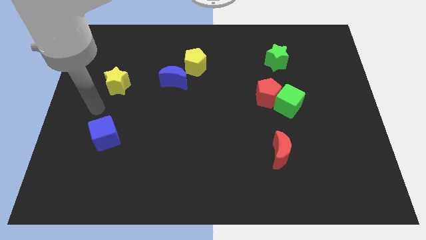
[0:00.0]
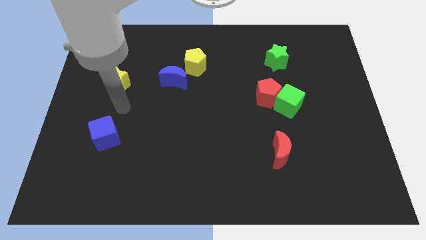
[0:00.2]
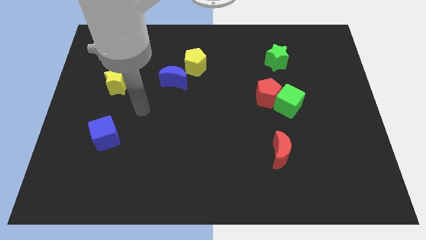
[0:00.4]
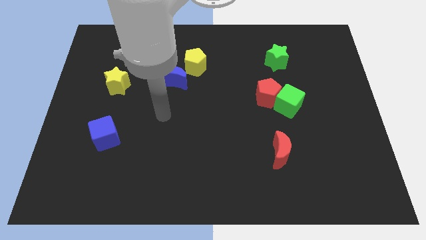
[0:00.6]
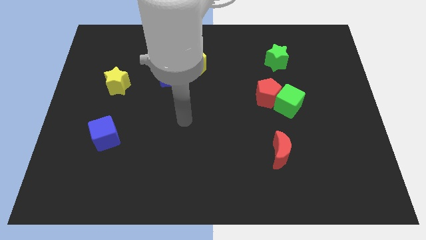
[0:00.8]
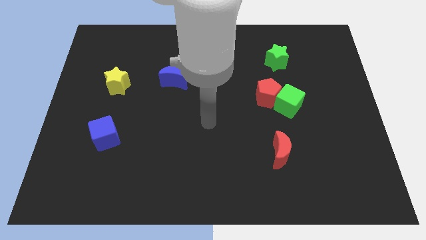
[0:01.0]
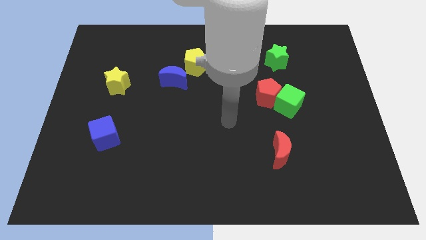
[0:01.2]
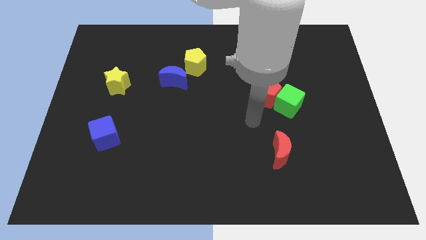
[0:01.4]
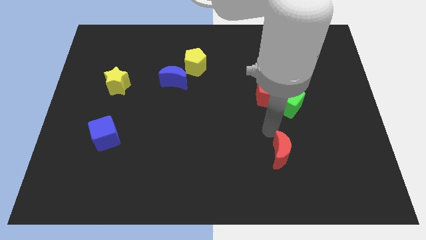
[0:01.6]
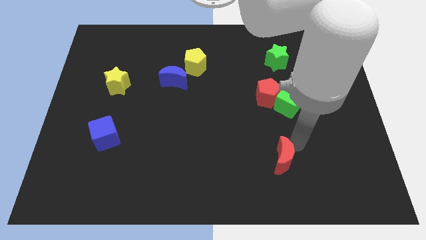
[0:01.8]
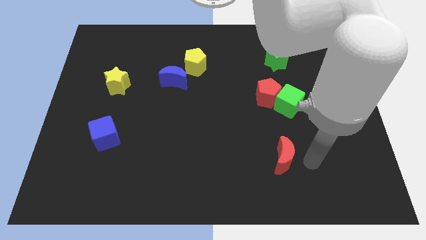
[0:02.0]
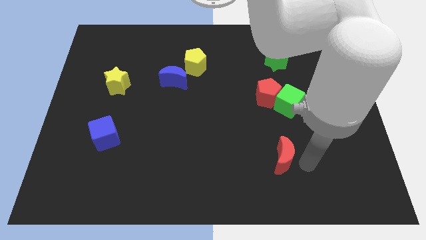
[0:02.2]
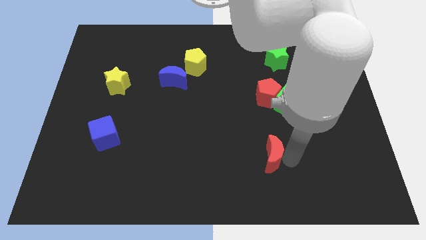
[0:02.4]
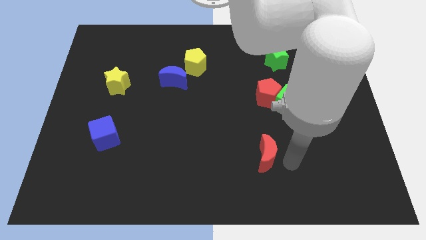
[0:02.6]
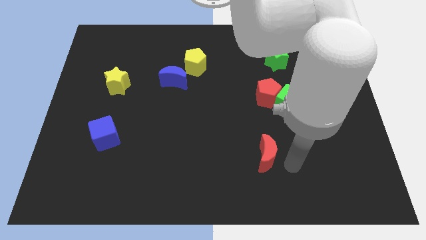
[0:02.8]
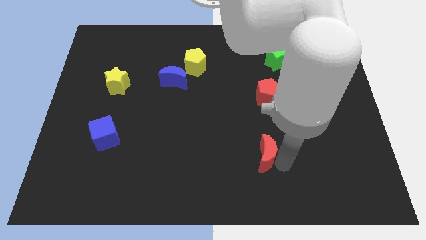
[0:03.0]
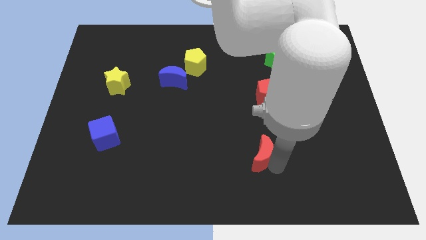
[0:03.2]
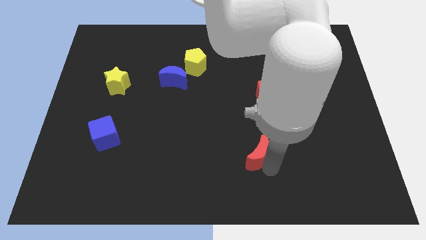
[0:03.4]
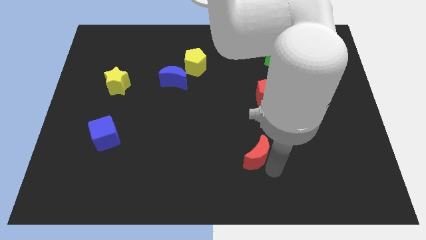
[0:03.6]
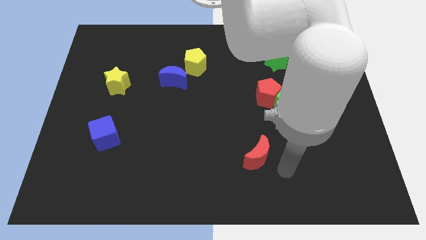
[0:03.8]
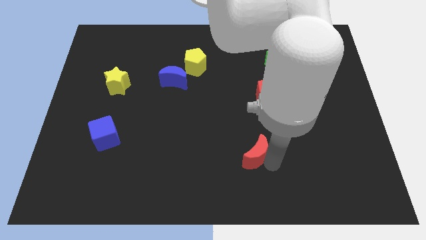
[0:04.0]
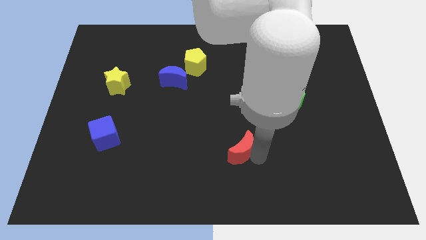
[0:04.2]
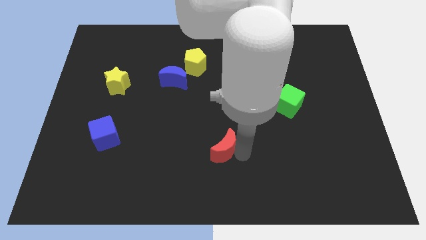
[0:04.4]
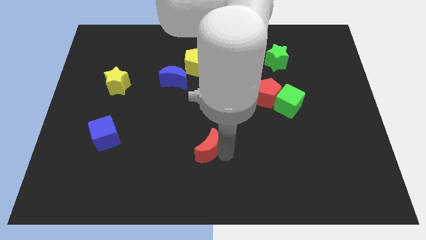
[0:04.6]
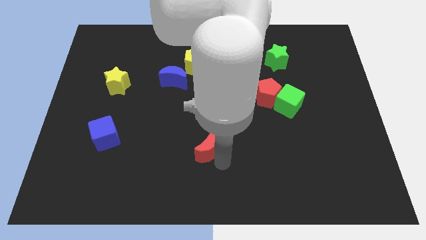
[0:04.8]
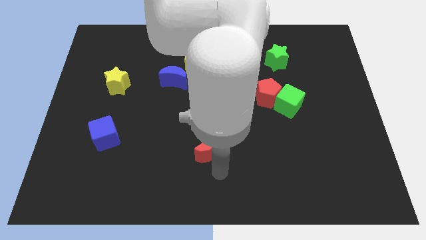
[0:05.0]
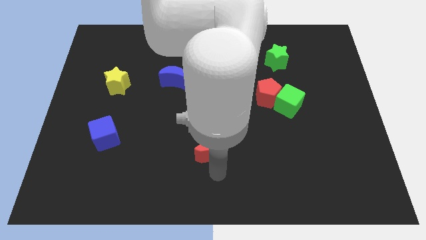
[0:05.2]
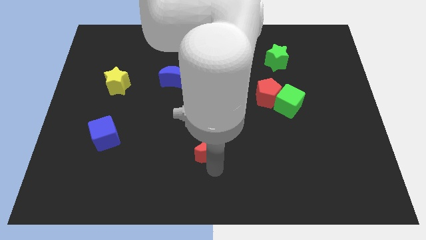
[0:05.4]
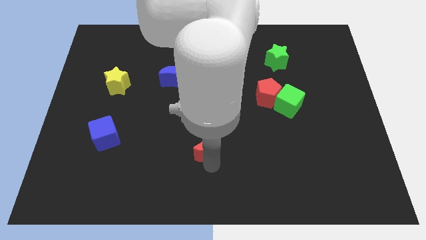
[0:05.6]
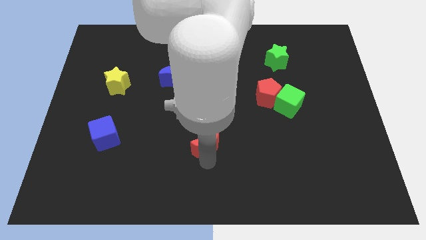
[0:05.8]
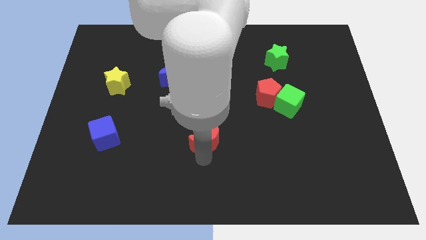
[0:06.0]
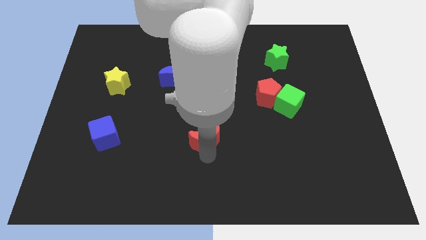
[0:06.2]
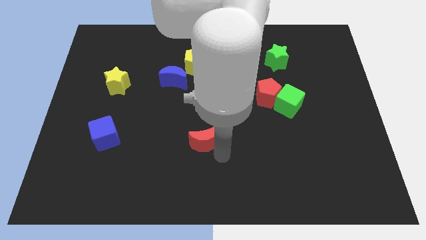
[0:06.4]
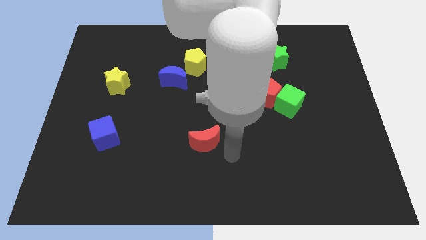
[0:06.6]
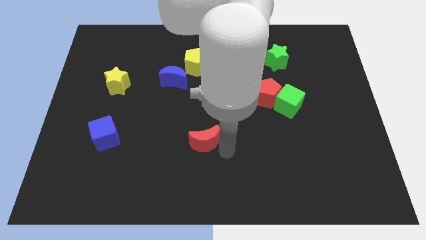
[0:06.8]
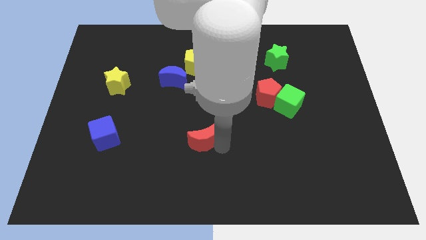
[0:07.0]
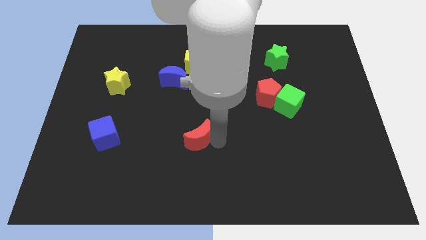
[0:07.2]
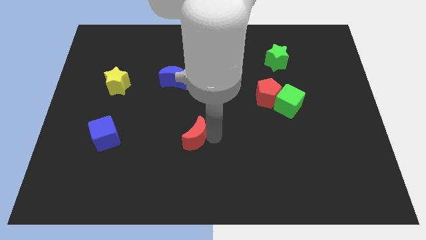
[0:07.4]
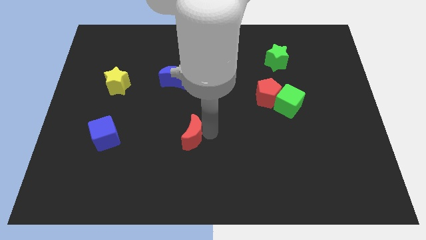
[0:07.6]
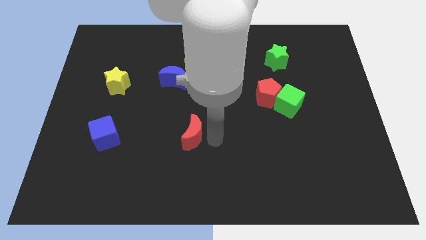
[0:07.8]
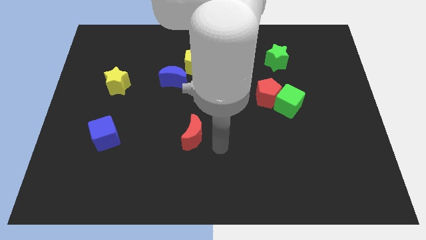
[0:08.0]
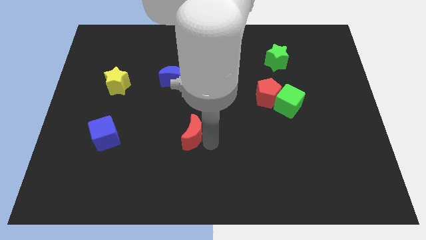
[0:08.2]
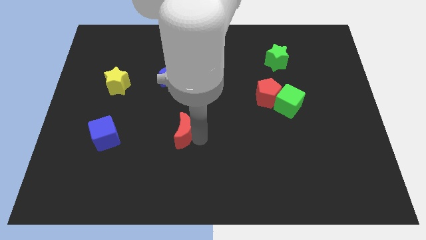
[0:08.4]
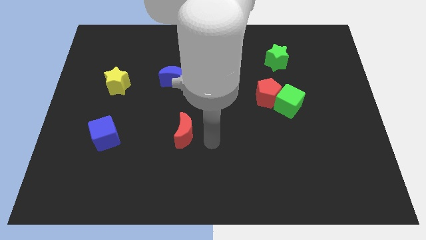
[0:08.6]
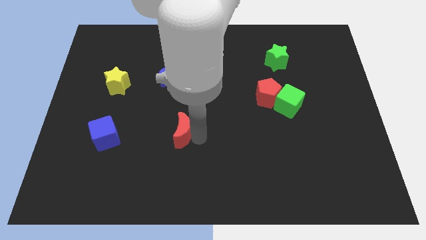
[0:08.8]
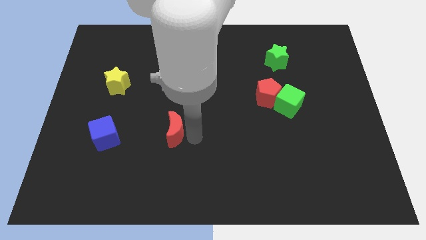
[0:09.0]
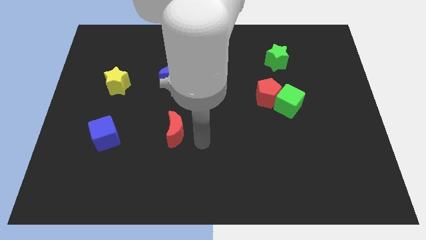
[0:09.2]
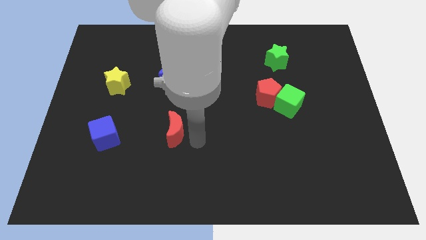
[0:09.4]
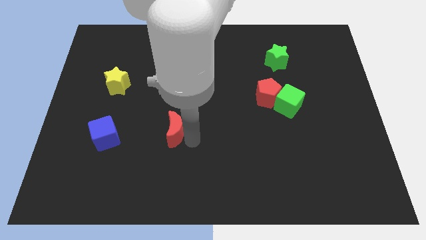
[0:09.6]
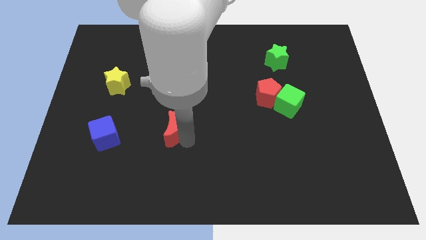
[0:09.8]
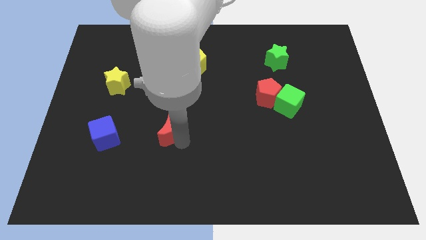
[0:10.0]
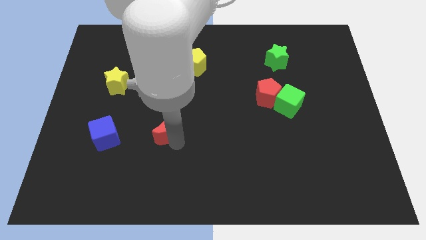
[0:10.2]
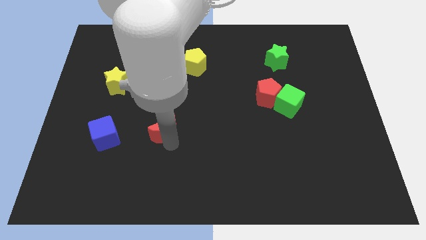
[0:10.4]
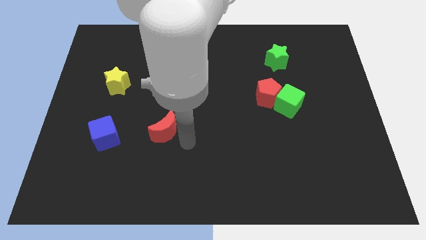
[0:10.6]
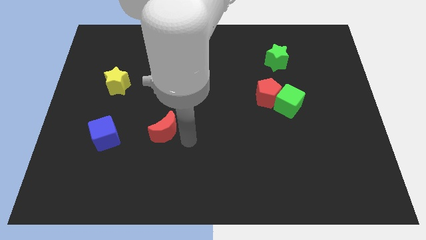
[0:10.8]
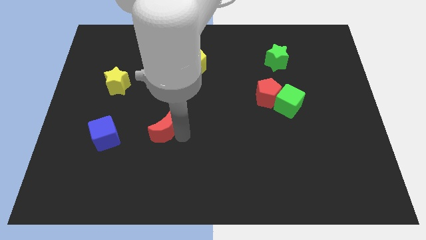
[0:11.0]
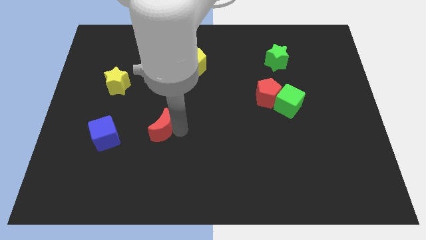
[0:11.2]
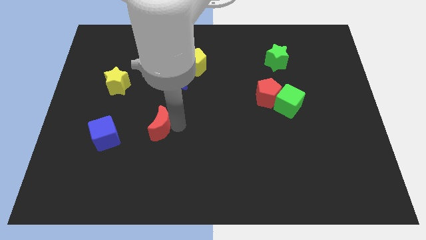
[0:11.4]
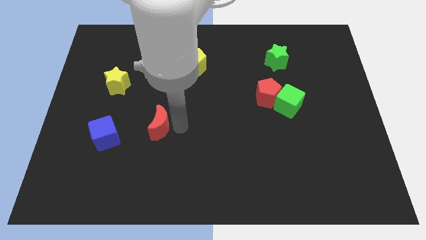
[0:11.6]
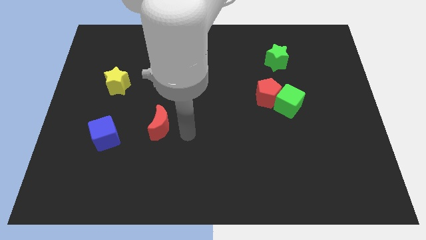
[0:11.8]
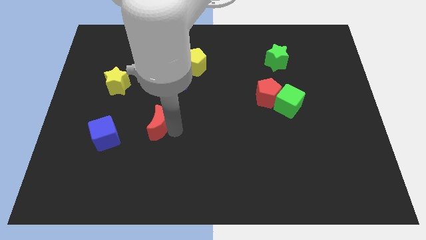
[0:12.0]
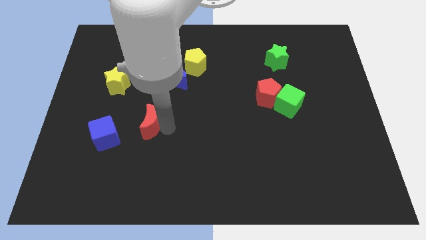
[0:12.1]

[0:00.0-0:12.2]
move the red moon diagonally up and to the right of the blue cube
